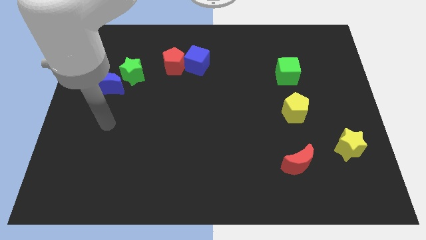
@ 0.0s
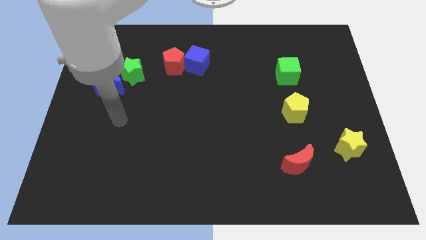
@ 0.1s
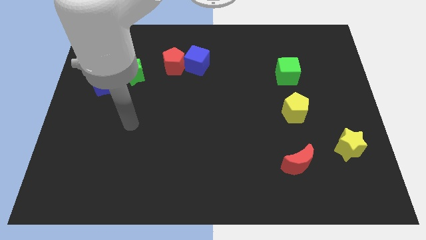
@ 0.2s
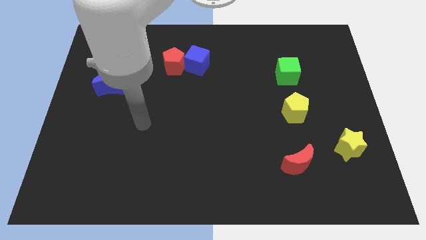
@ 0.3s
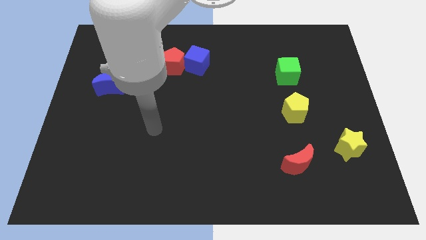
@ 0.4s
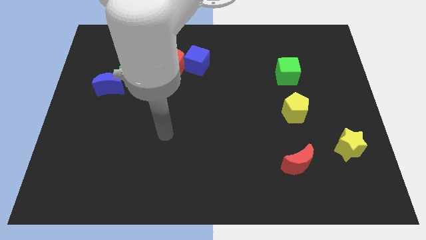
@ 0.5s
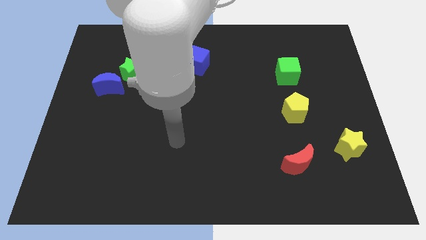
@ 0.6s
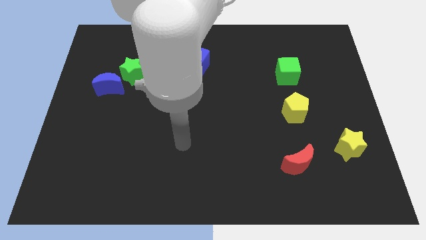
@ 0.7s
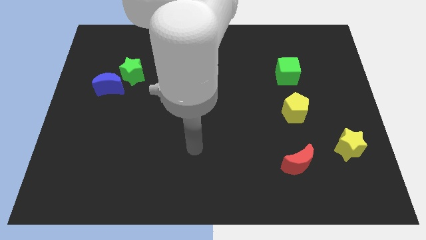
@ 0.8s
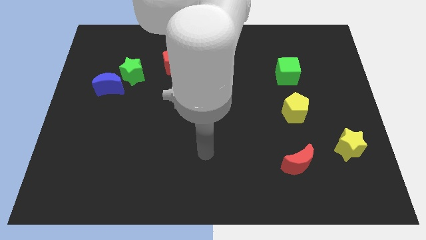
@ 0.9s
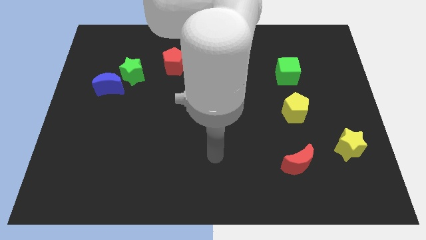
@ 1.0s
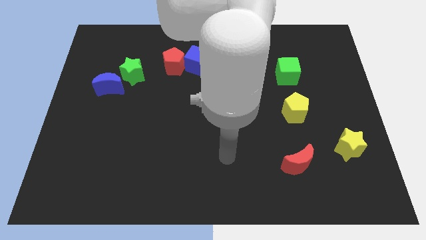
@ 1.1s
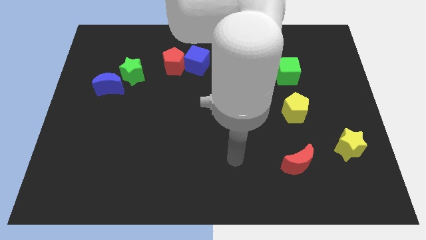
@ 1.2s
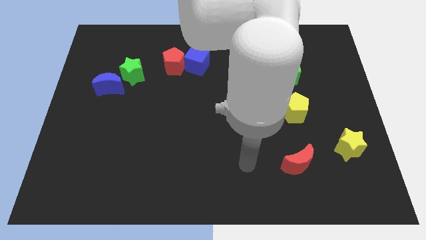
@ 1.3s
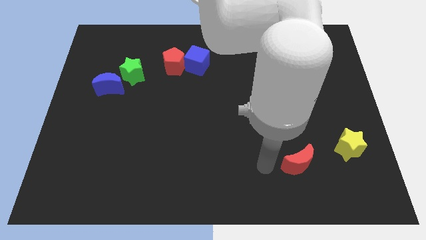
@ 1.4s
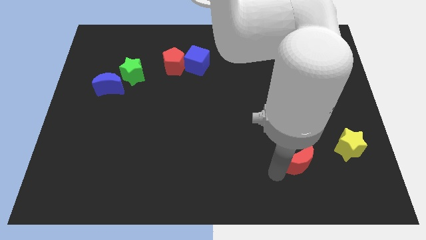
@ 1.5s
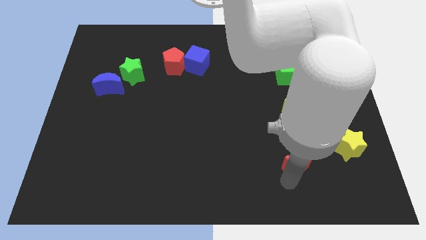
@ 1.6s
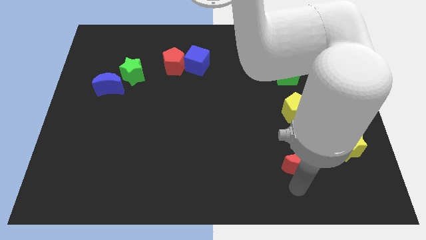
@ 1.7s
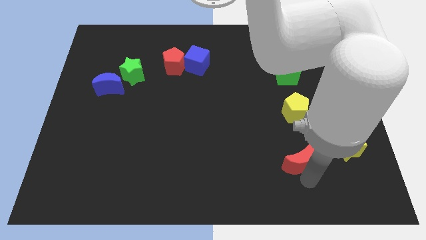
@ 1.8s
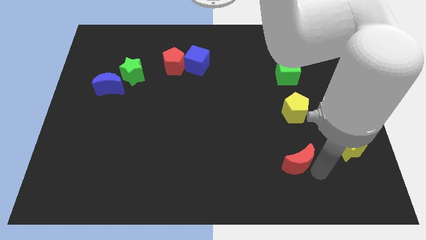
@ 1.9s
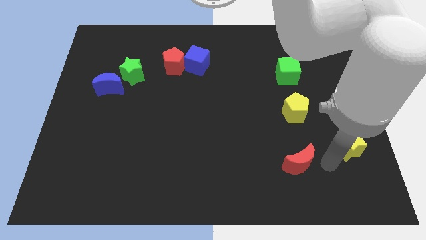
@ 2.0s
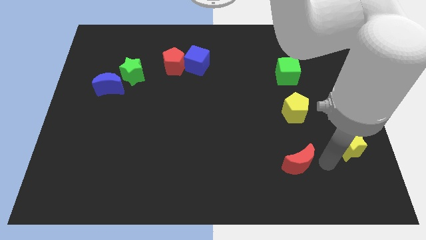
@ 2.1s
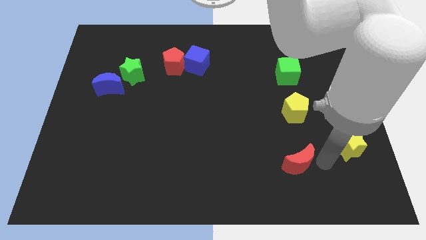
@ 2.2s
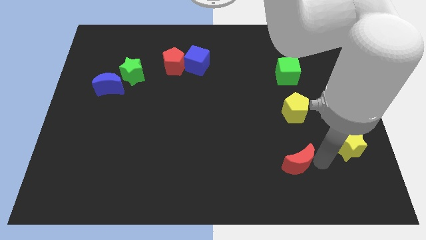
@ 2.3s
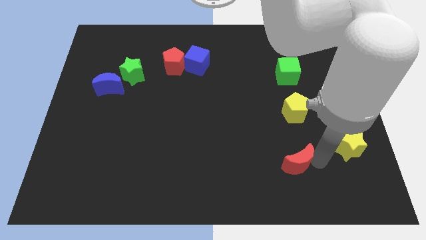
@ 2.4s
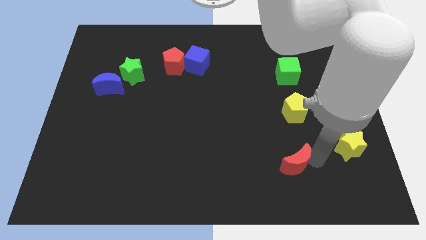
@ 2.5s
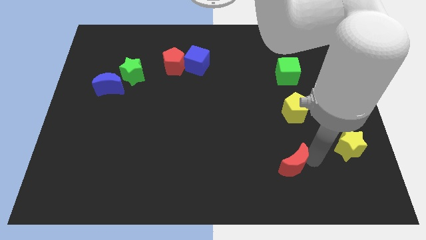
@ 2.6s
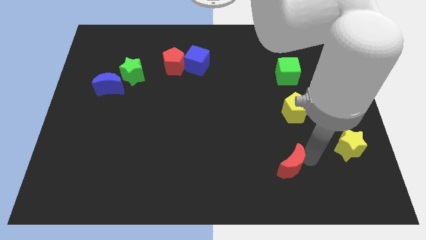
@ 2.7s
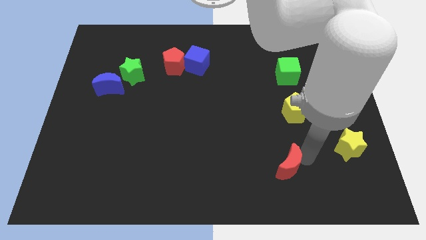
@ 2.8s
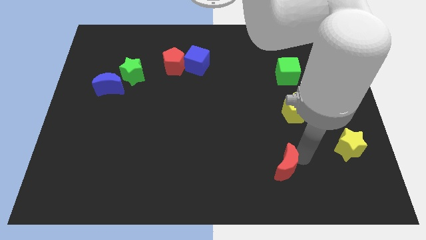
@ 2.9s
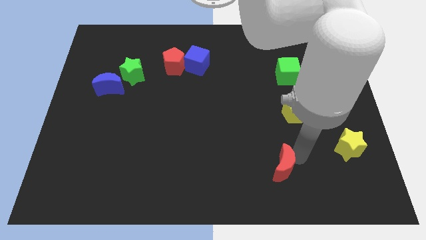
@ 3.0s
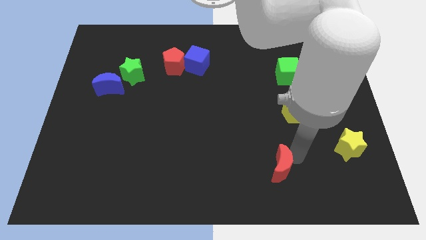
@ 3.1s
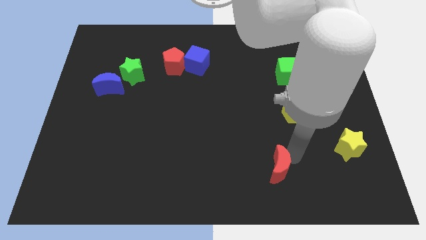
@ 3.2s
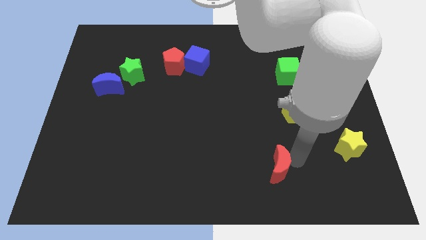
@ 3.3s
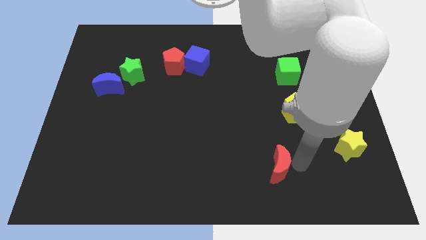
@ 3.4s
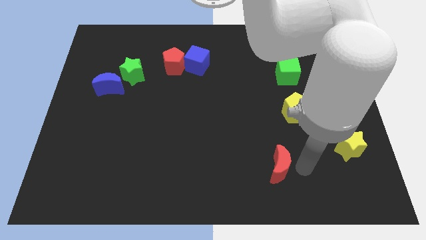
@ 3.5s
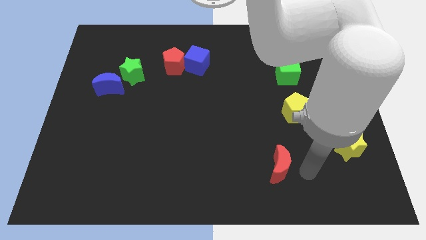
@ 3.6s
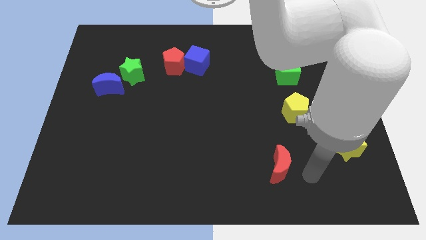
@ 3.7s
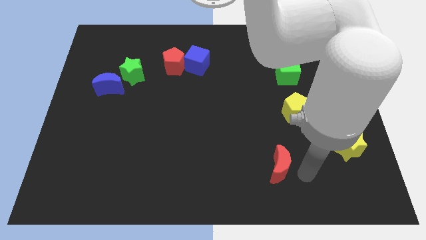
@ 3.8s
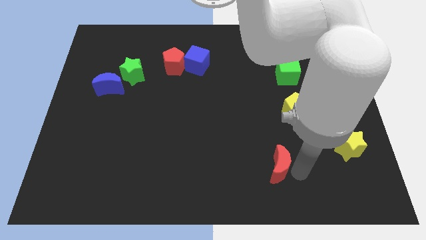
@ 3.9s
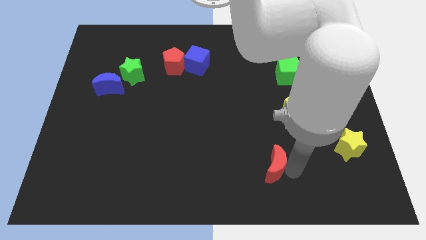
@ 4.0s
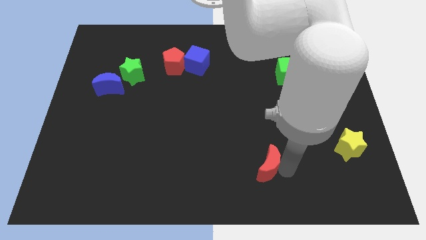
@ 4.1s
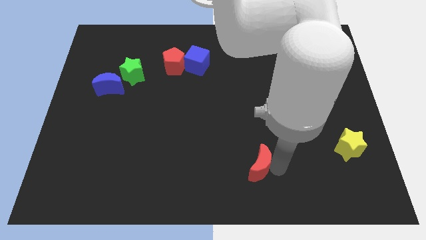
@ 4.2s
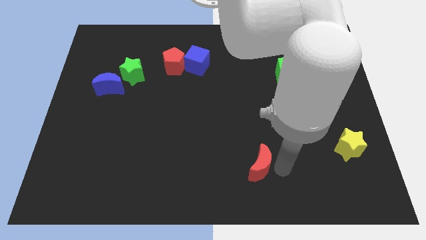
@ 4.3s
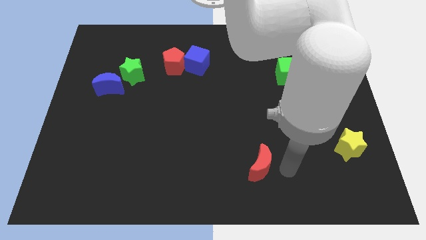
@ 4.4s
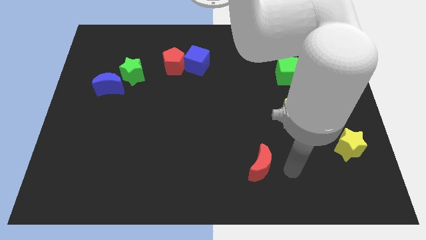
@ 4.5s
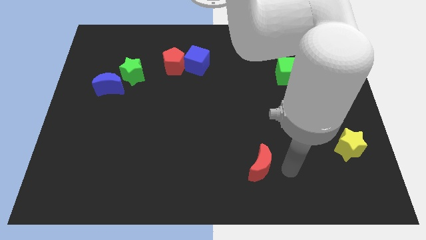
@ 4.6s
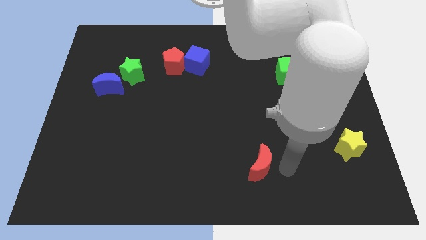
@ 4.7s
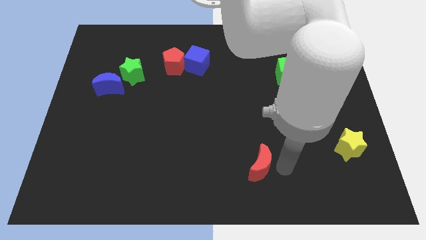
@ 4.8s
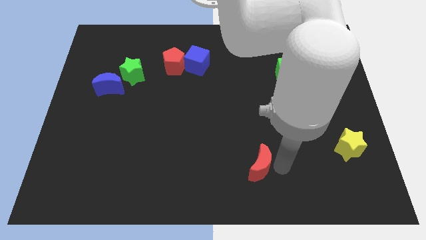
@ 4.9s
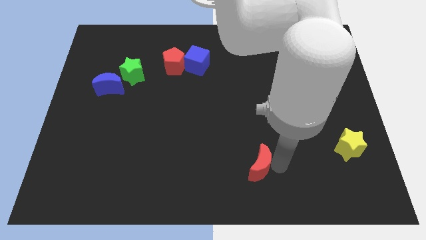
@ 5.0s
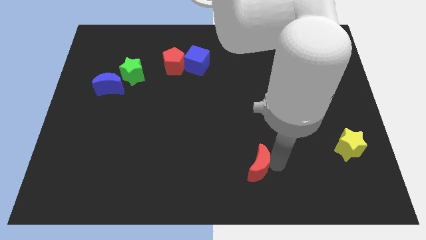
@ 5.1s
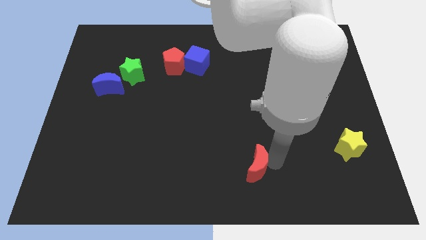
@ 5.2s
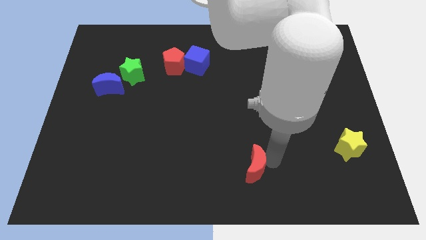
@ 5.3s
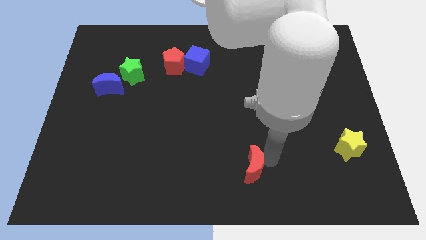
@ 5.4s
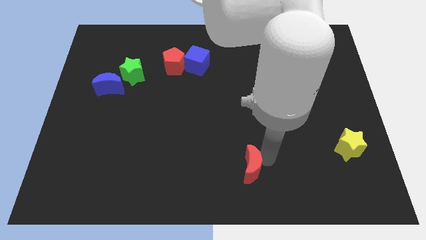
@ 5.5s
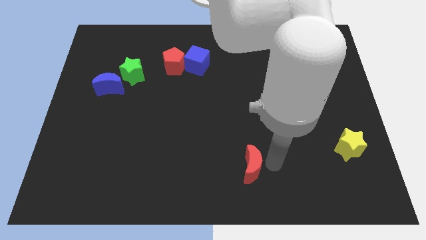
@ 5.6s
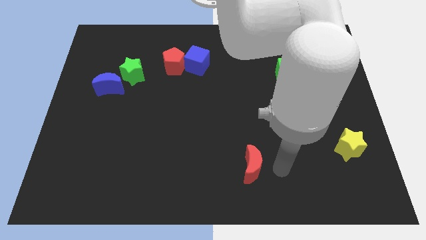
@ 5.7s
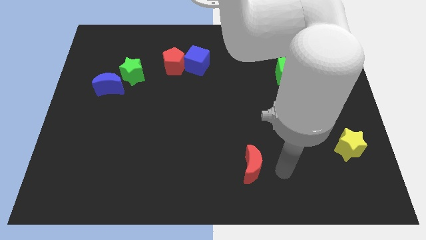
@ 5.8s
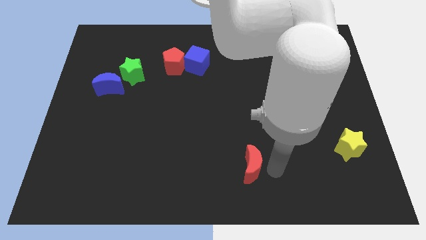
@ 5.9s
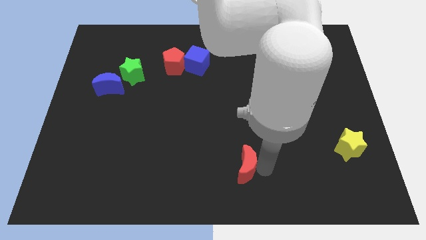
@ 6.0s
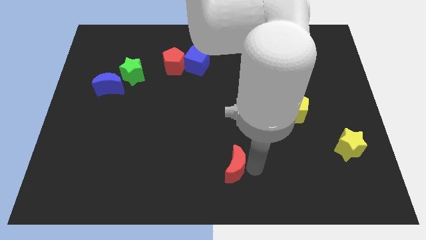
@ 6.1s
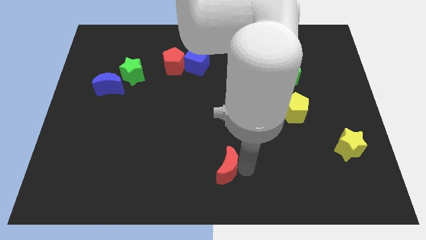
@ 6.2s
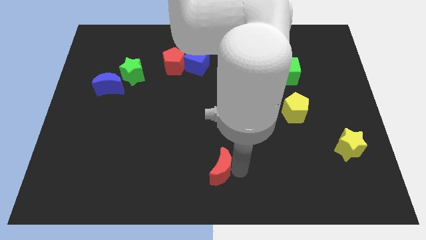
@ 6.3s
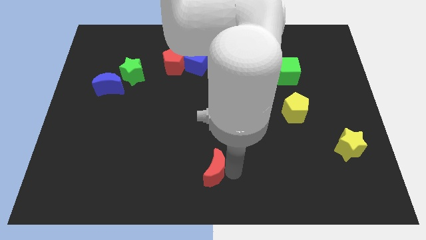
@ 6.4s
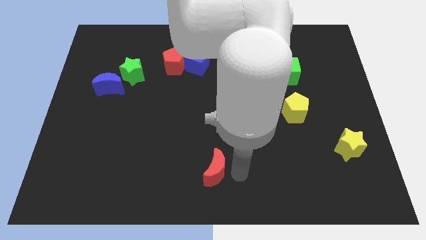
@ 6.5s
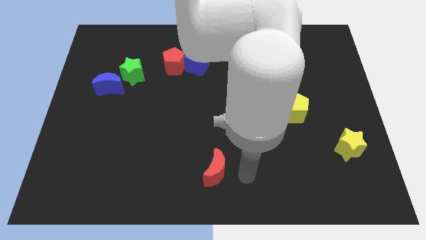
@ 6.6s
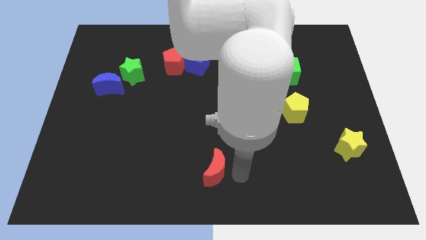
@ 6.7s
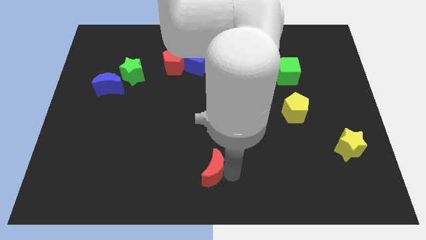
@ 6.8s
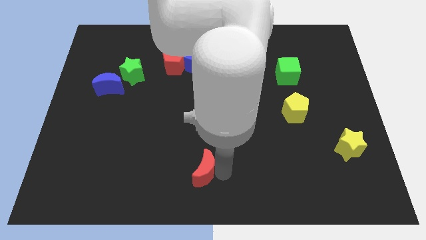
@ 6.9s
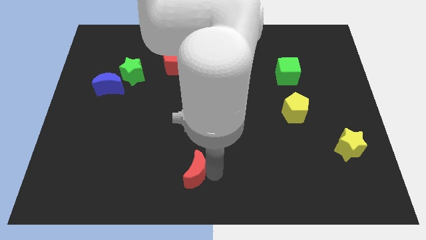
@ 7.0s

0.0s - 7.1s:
push the red moon to the left

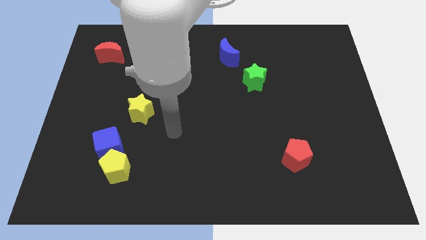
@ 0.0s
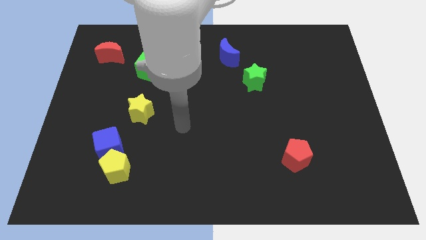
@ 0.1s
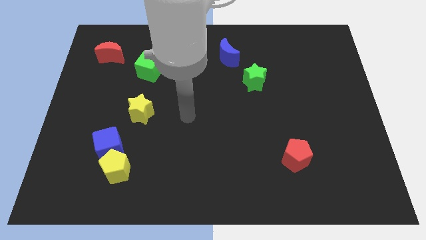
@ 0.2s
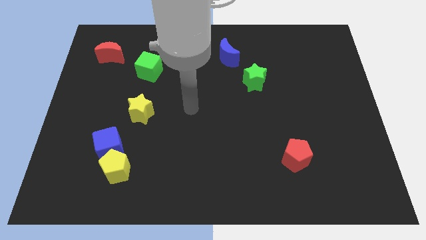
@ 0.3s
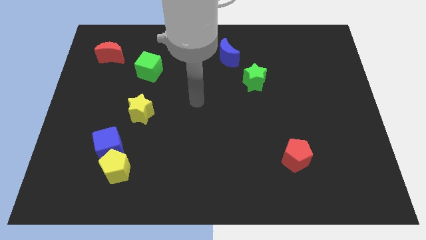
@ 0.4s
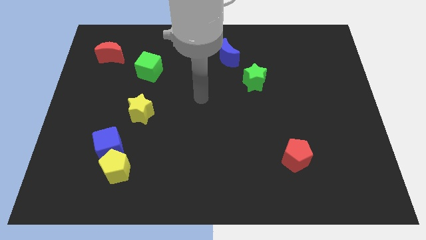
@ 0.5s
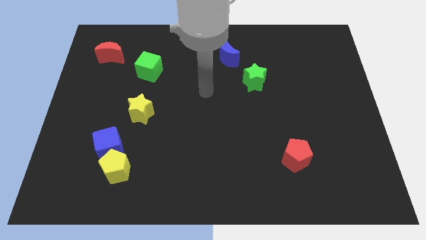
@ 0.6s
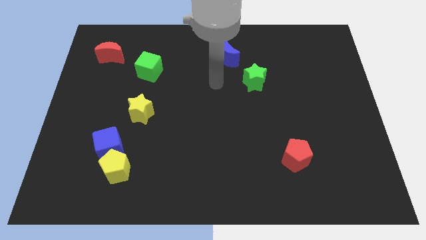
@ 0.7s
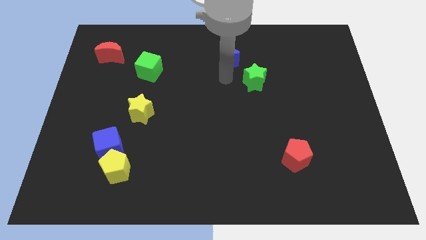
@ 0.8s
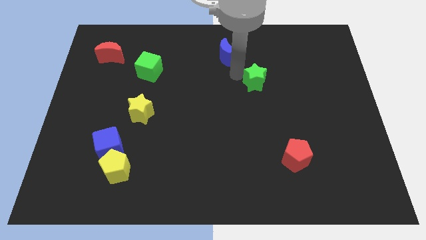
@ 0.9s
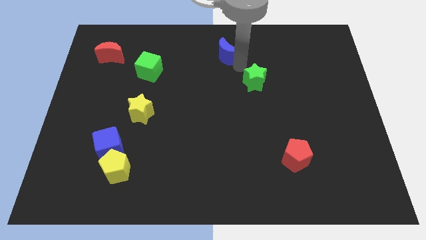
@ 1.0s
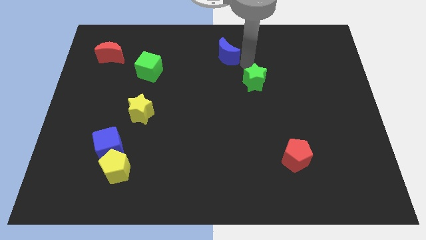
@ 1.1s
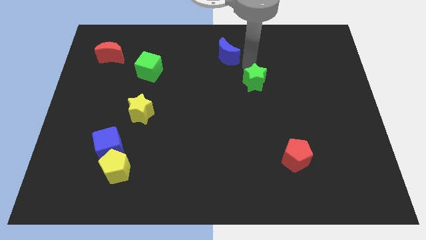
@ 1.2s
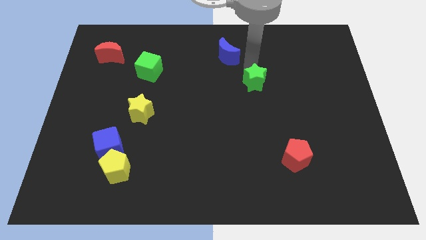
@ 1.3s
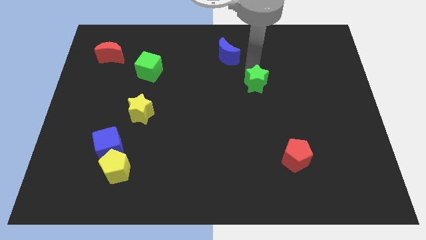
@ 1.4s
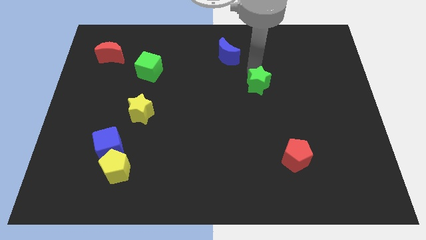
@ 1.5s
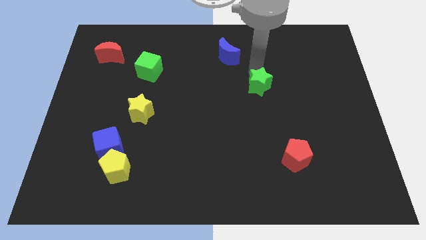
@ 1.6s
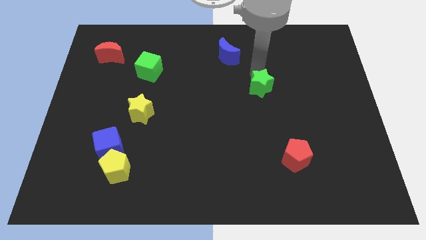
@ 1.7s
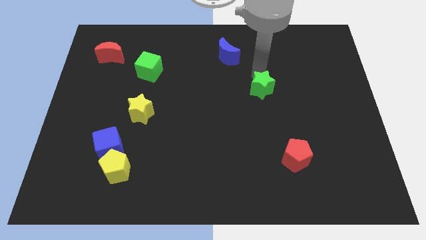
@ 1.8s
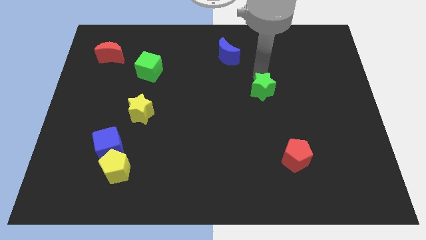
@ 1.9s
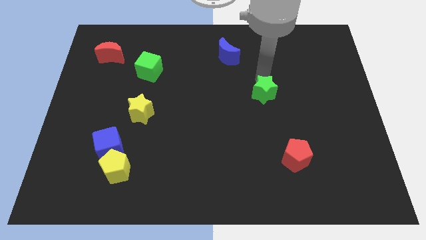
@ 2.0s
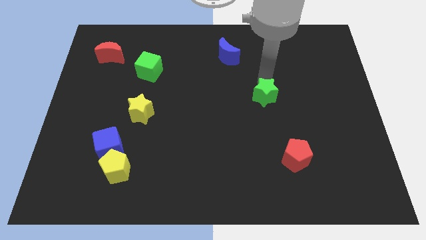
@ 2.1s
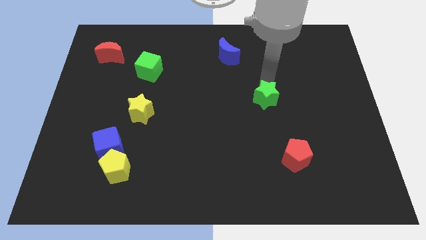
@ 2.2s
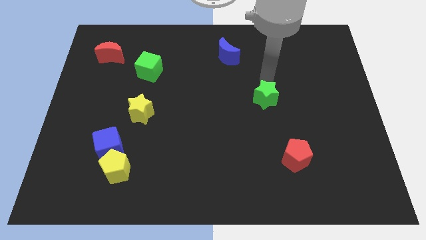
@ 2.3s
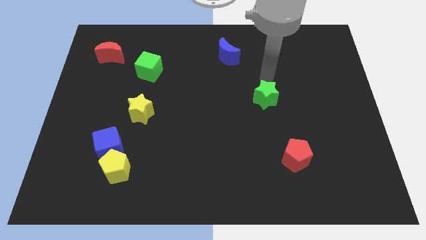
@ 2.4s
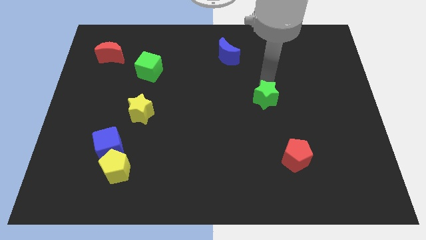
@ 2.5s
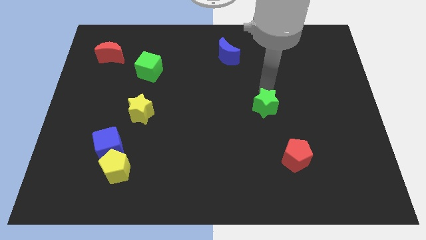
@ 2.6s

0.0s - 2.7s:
slightly push the green star down
